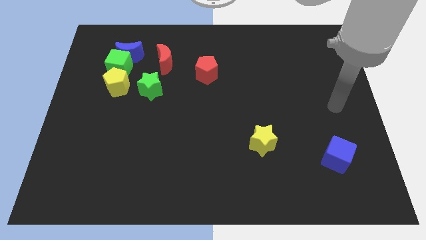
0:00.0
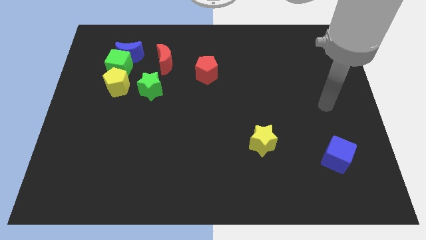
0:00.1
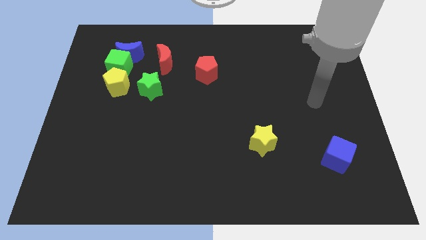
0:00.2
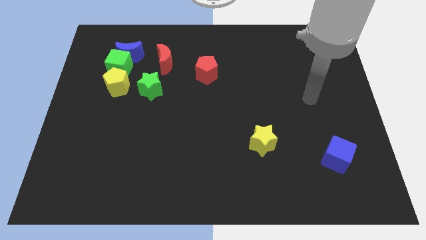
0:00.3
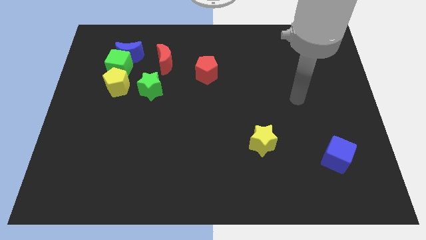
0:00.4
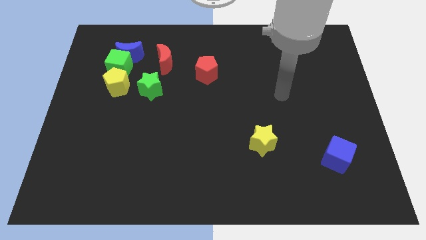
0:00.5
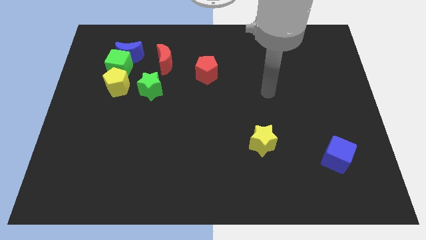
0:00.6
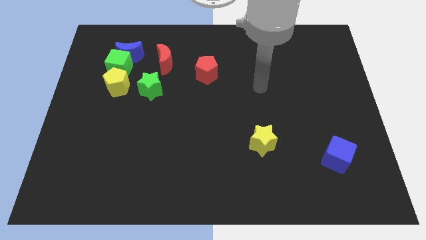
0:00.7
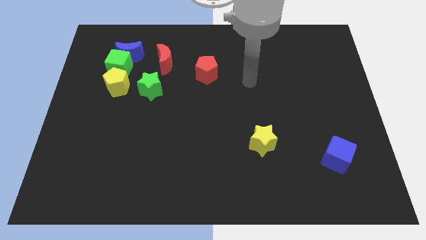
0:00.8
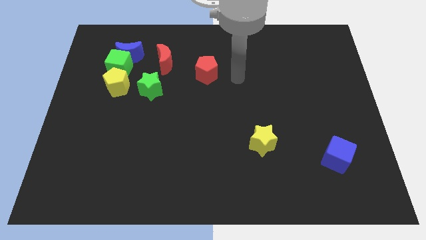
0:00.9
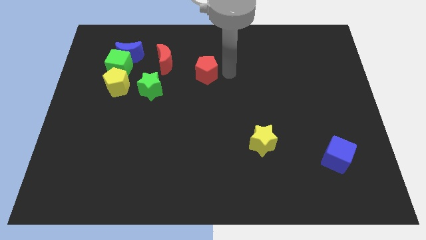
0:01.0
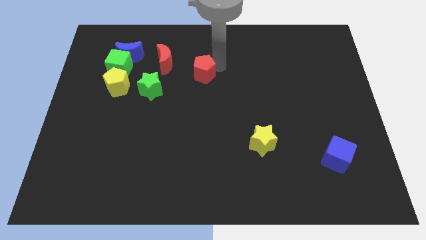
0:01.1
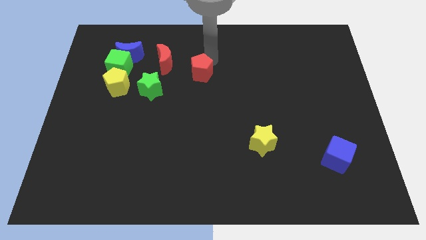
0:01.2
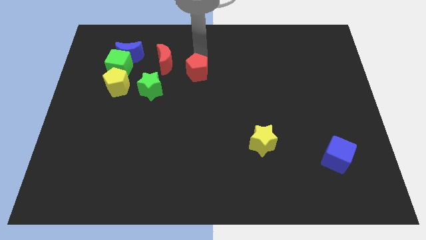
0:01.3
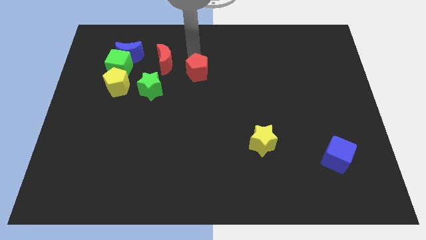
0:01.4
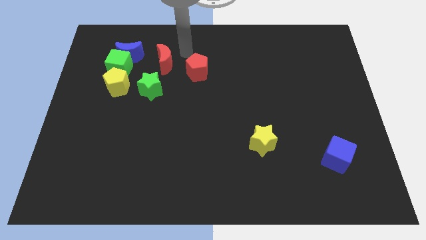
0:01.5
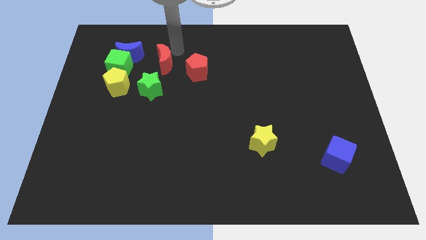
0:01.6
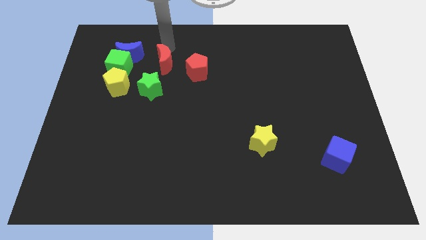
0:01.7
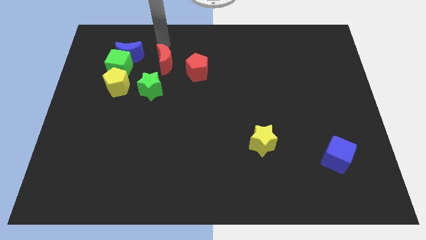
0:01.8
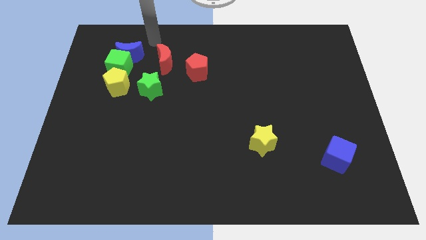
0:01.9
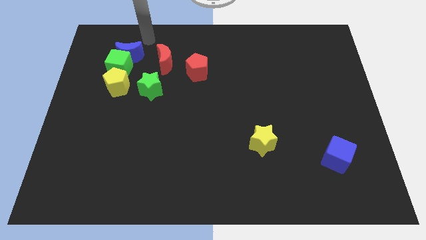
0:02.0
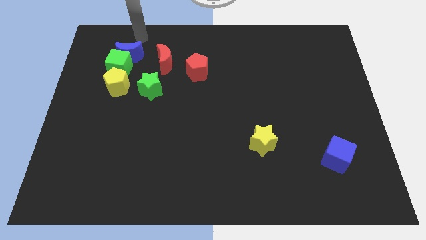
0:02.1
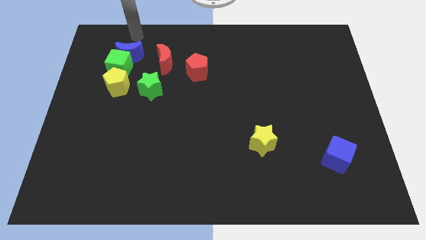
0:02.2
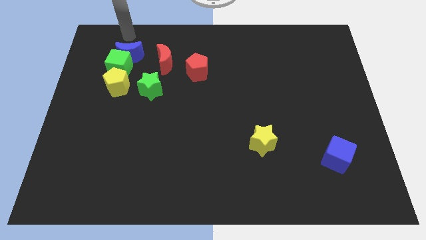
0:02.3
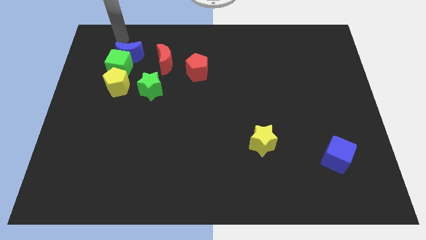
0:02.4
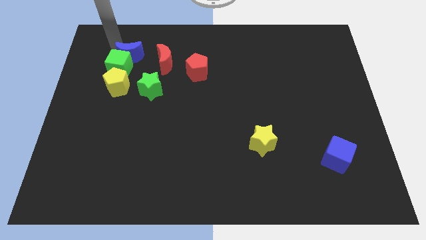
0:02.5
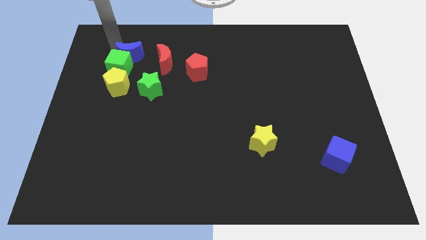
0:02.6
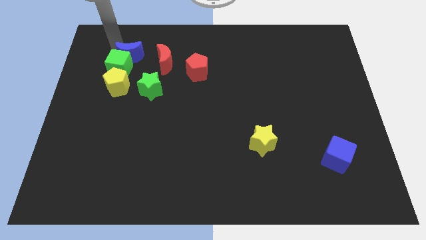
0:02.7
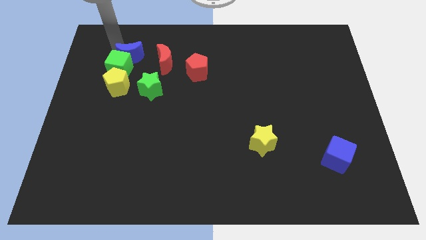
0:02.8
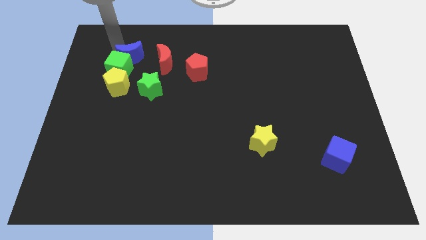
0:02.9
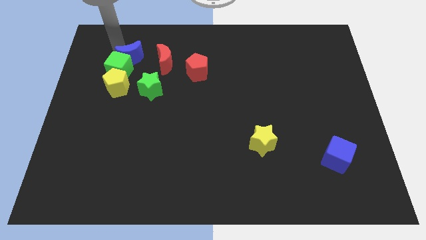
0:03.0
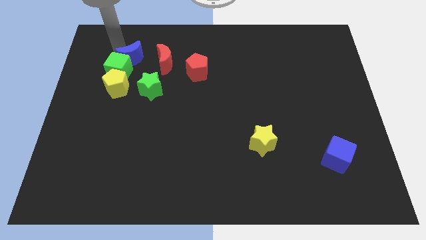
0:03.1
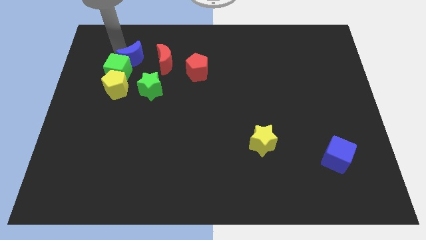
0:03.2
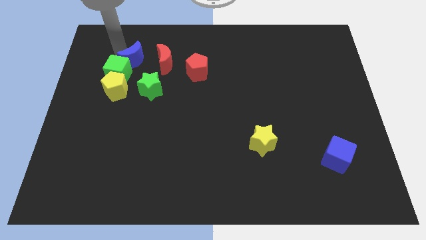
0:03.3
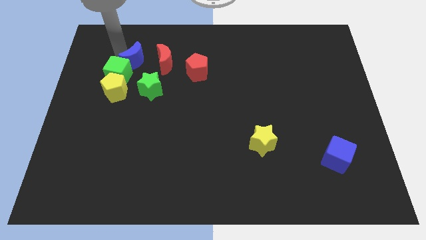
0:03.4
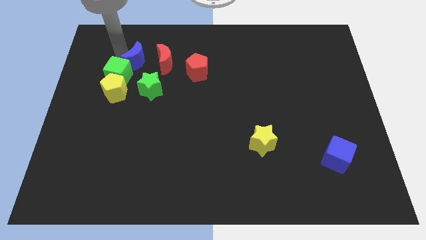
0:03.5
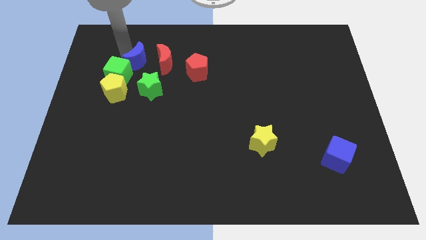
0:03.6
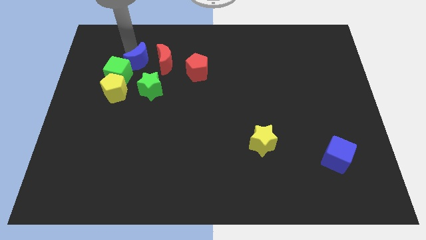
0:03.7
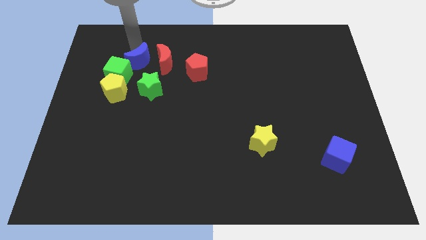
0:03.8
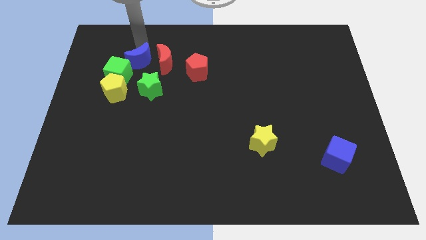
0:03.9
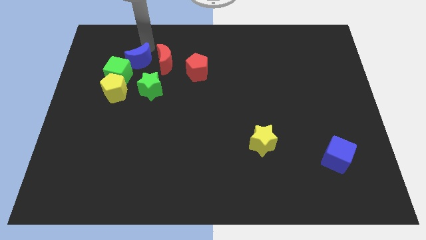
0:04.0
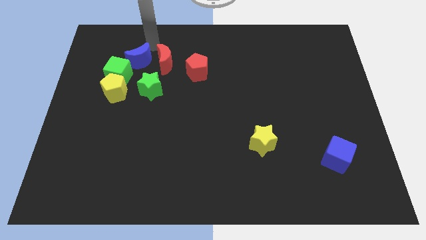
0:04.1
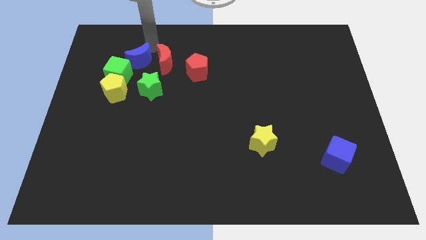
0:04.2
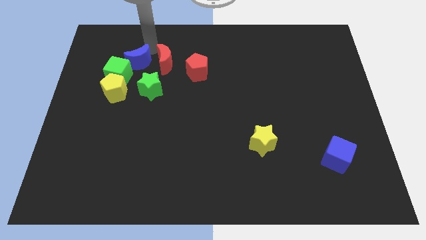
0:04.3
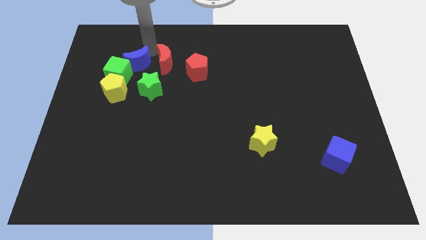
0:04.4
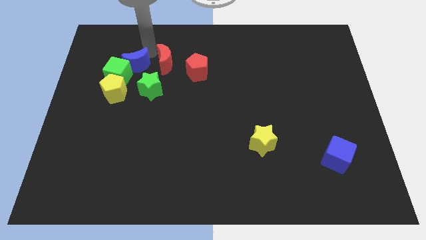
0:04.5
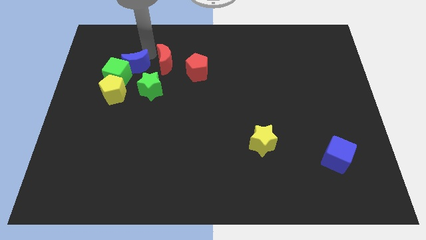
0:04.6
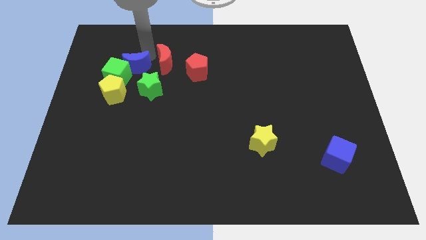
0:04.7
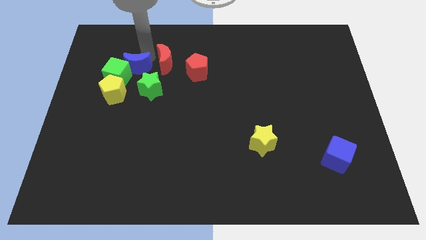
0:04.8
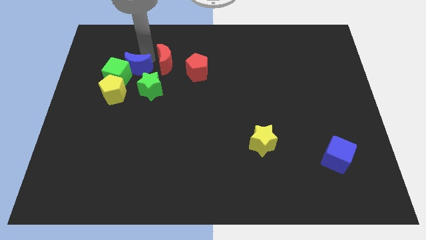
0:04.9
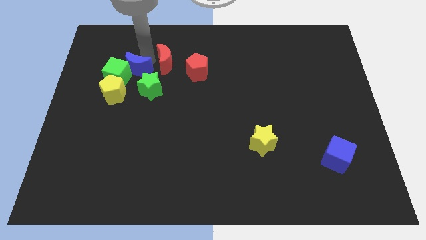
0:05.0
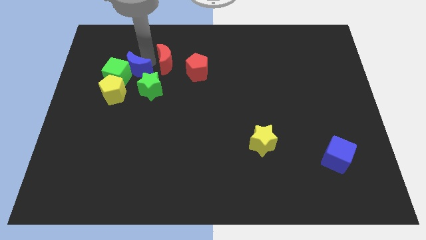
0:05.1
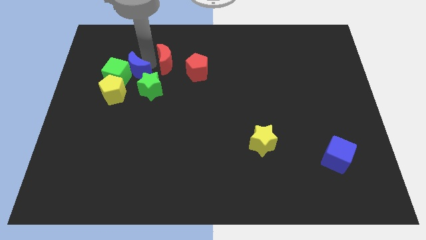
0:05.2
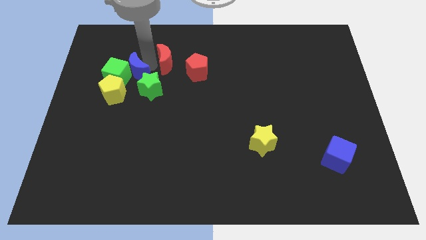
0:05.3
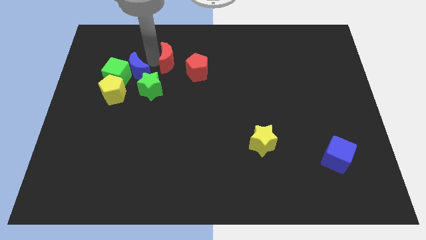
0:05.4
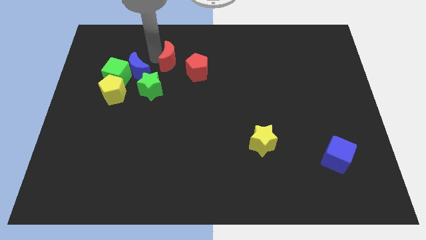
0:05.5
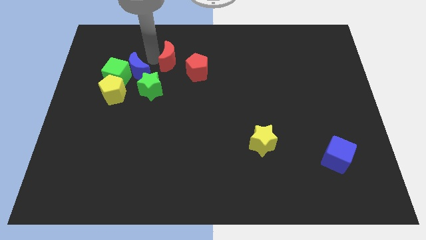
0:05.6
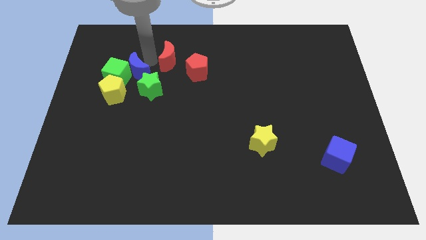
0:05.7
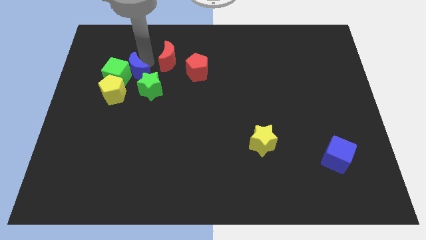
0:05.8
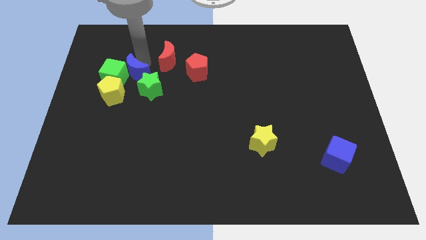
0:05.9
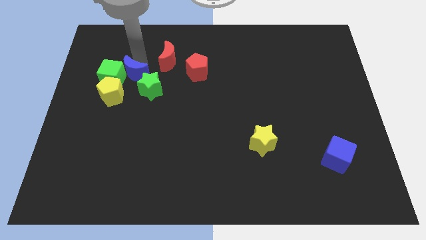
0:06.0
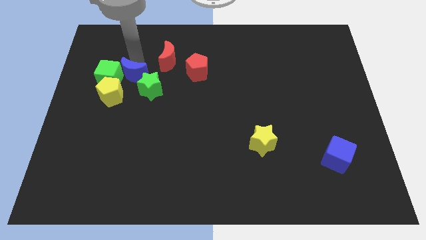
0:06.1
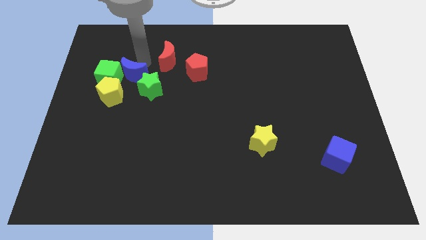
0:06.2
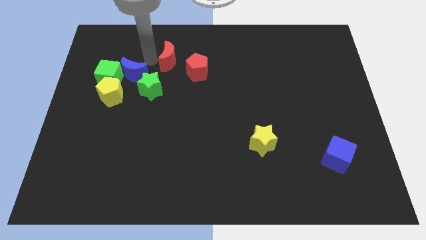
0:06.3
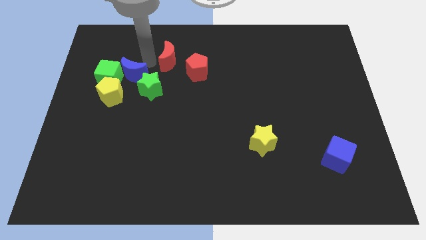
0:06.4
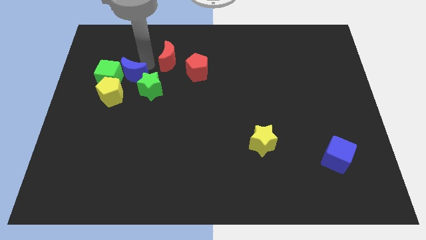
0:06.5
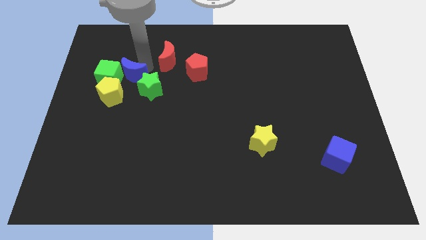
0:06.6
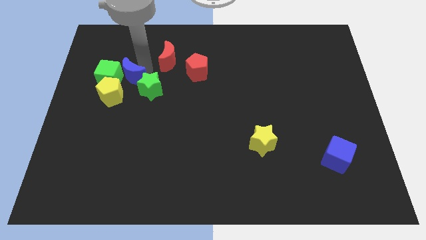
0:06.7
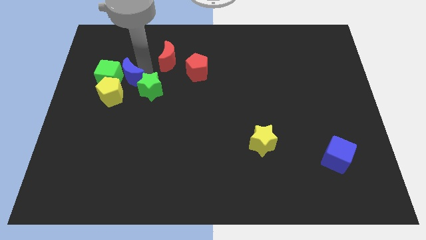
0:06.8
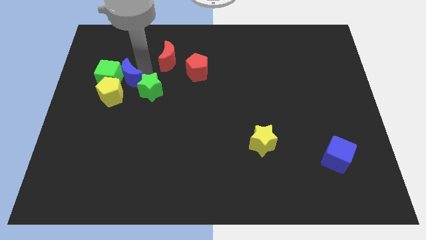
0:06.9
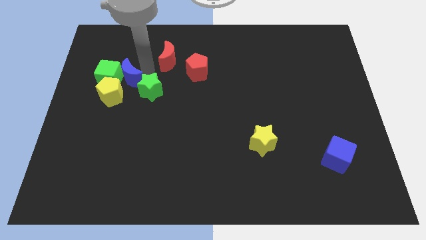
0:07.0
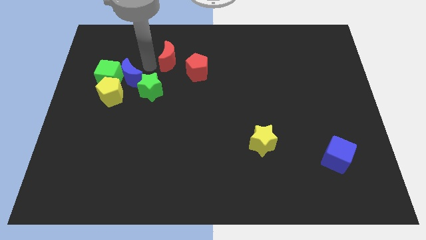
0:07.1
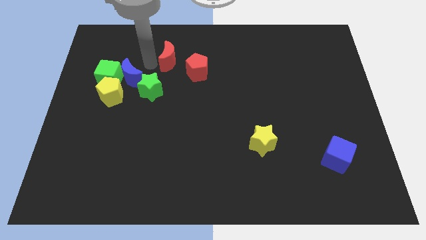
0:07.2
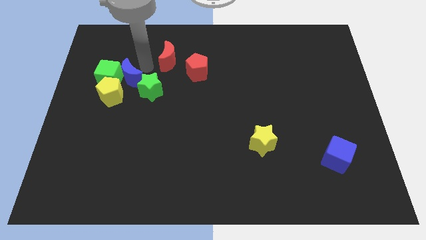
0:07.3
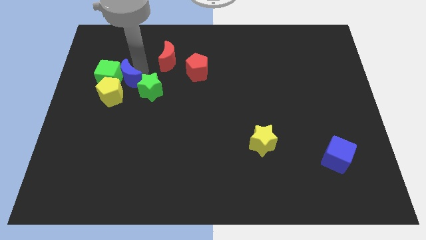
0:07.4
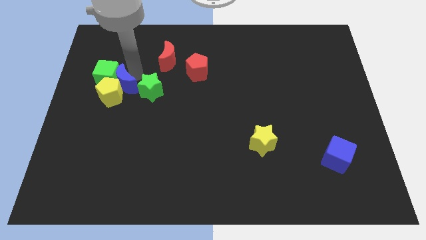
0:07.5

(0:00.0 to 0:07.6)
slide the blue moon next to the yellow pentagon
